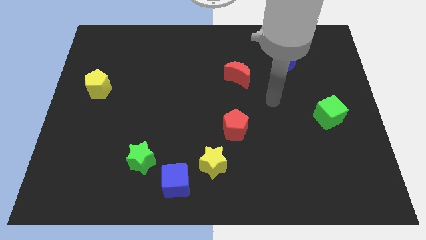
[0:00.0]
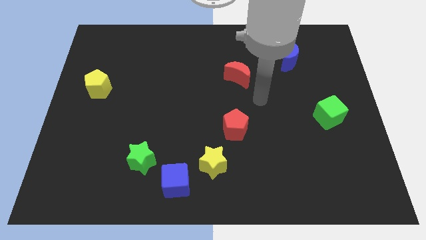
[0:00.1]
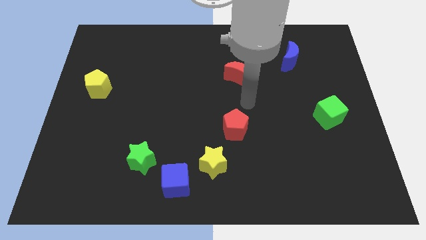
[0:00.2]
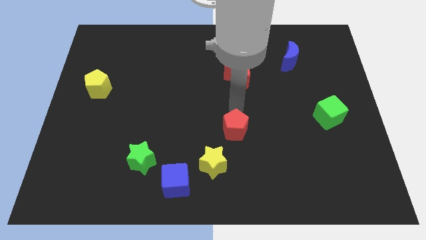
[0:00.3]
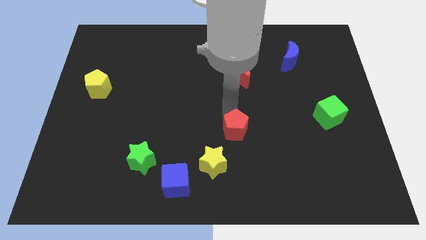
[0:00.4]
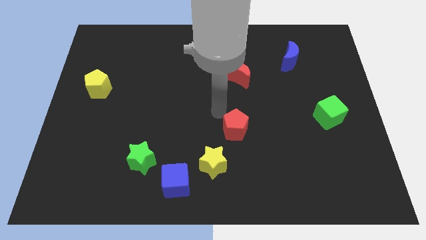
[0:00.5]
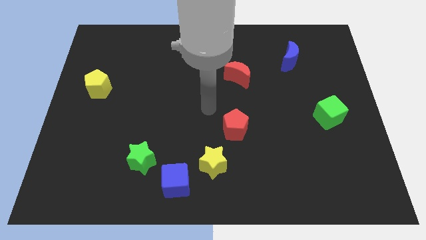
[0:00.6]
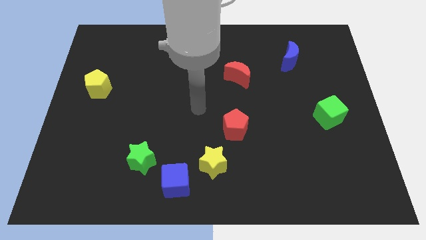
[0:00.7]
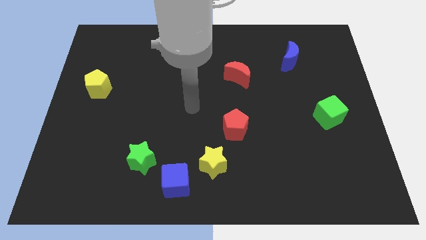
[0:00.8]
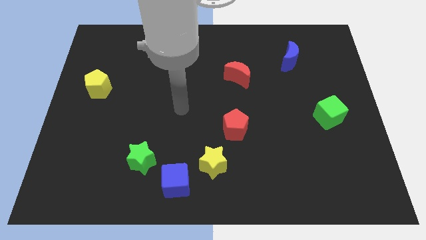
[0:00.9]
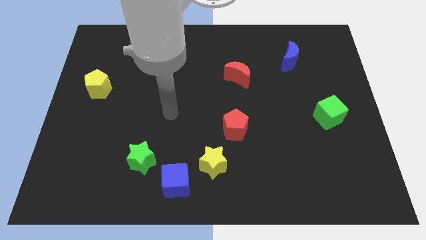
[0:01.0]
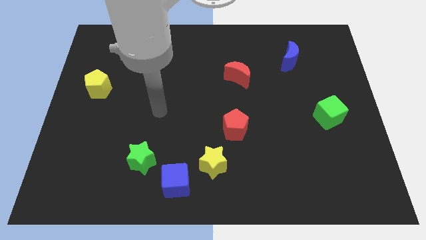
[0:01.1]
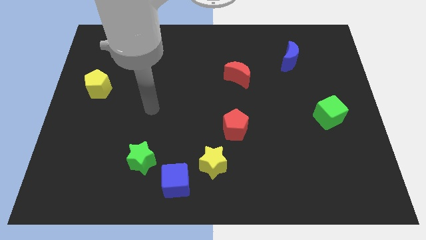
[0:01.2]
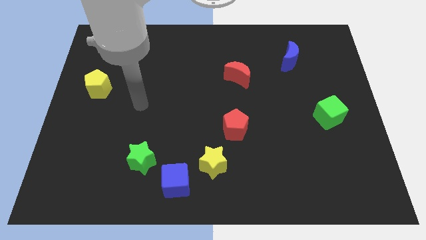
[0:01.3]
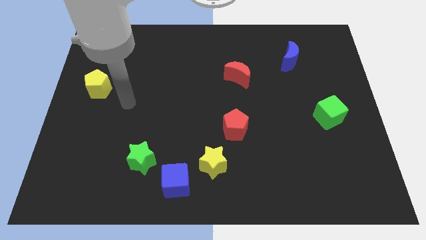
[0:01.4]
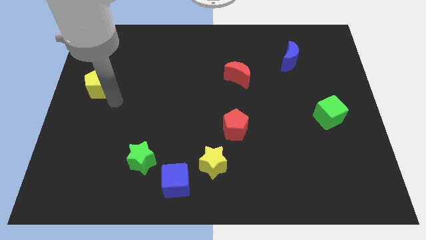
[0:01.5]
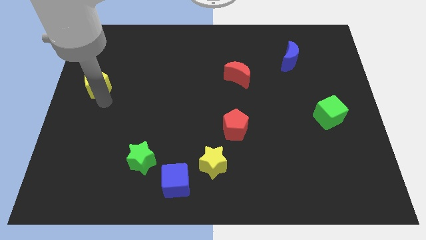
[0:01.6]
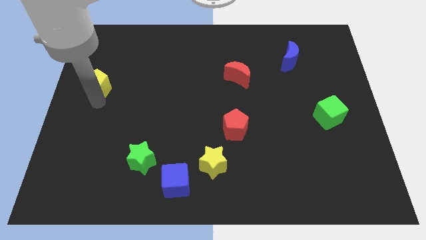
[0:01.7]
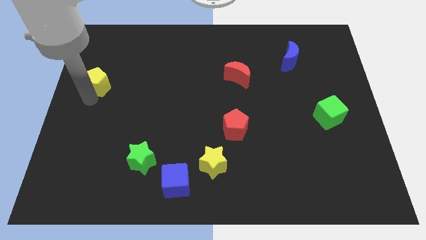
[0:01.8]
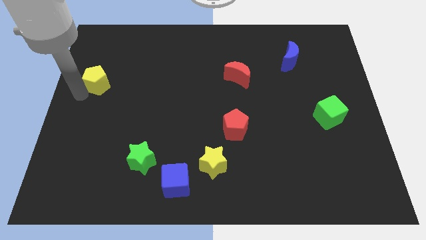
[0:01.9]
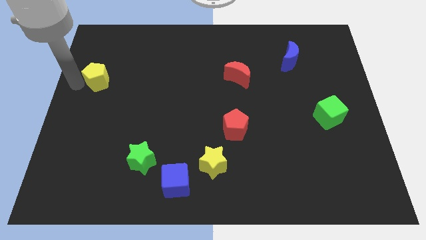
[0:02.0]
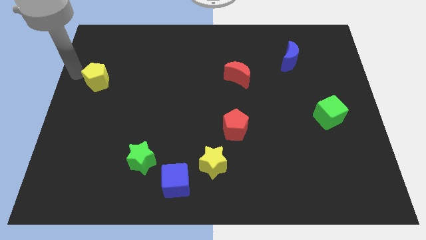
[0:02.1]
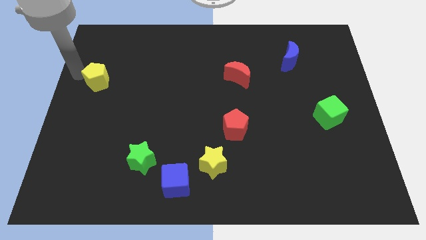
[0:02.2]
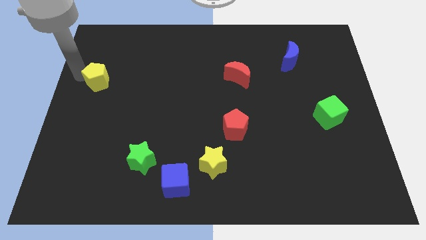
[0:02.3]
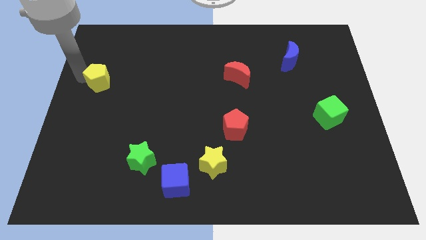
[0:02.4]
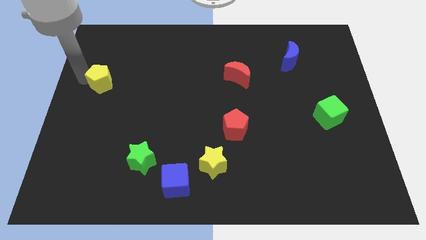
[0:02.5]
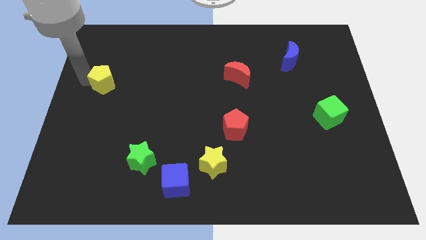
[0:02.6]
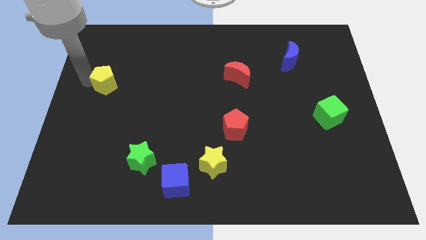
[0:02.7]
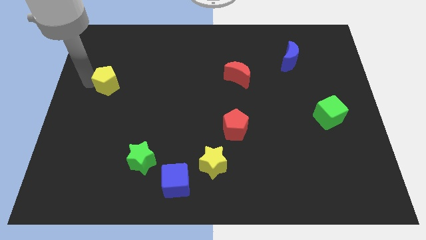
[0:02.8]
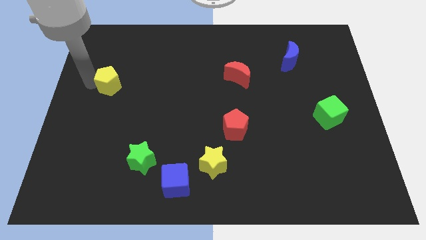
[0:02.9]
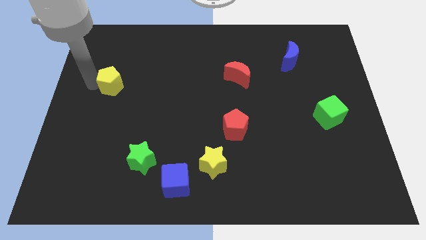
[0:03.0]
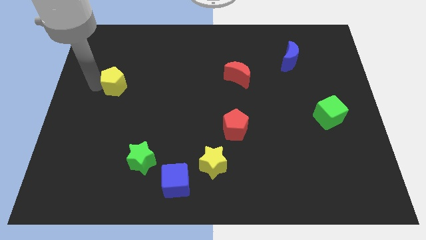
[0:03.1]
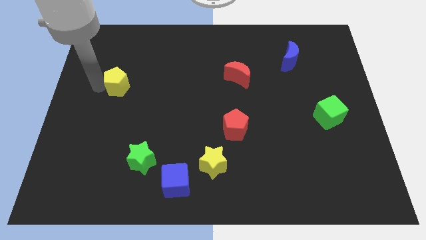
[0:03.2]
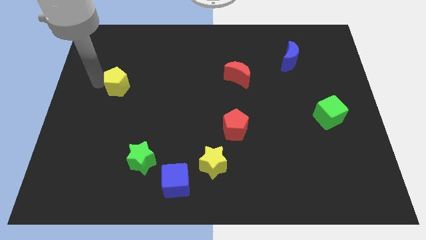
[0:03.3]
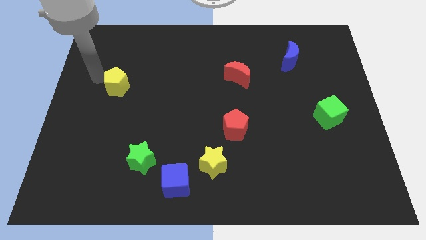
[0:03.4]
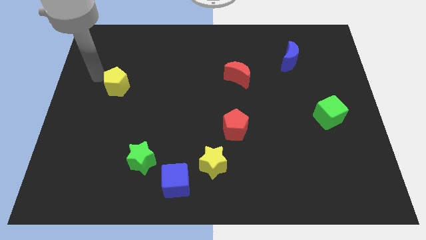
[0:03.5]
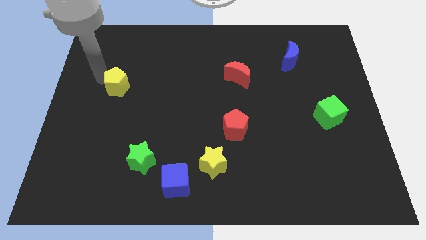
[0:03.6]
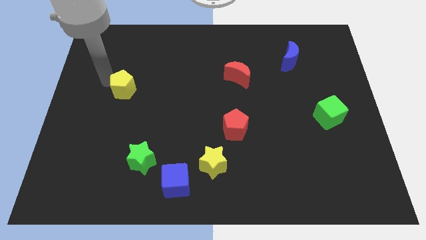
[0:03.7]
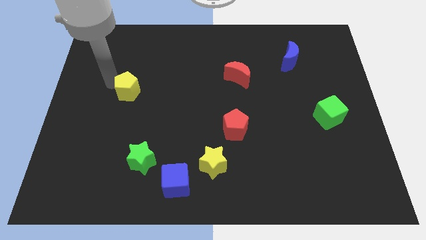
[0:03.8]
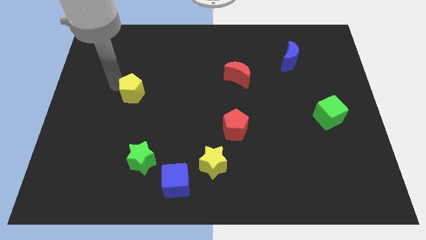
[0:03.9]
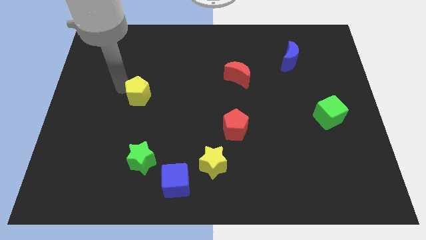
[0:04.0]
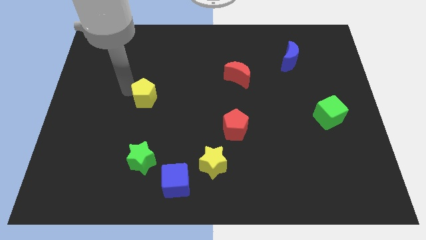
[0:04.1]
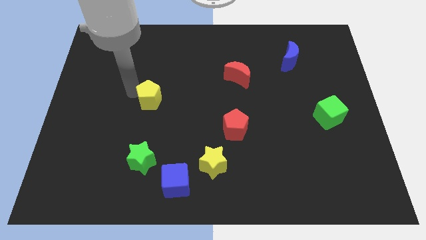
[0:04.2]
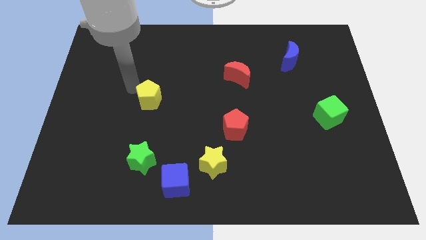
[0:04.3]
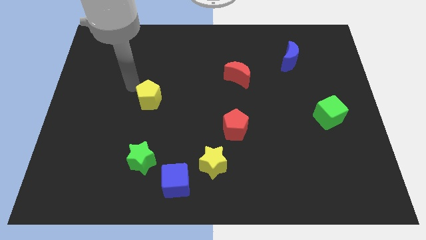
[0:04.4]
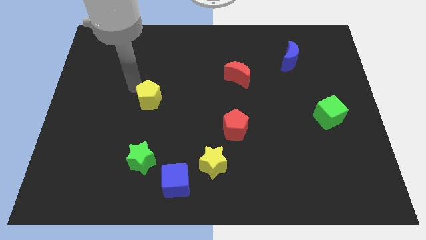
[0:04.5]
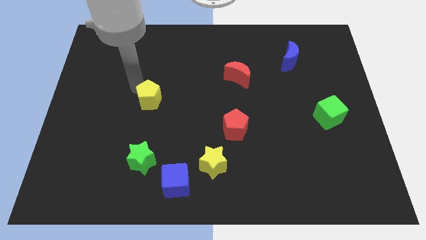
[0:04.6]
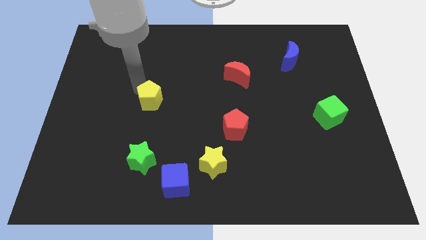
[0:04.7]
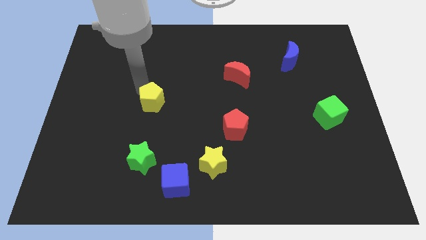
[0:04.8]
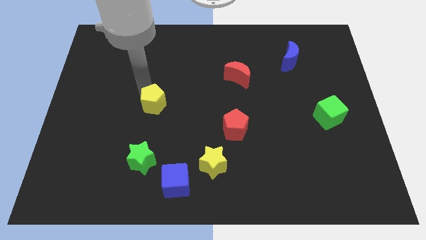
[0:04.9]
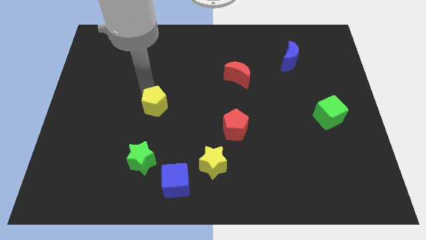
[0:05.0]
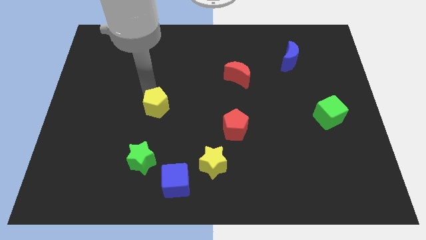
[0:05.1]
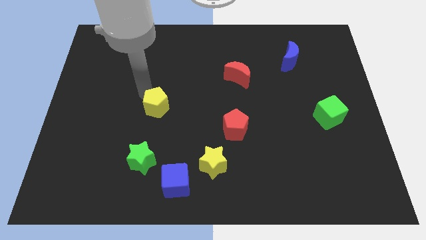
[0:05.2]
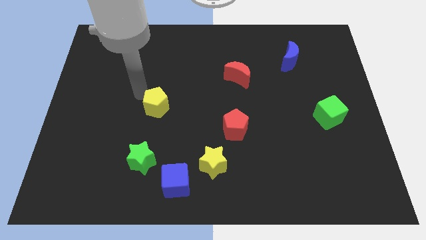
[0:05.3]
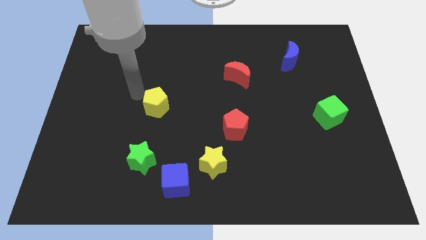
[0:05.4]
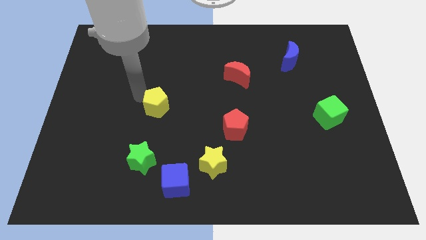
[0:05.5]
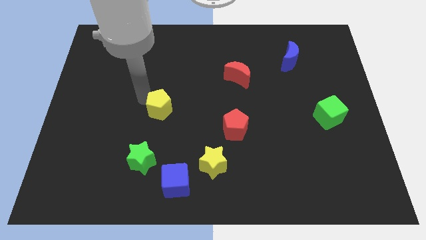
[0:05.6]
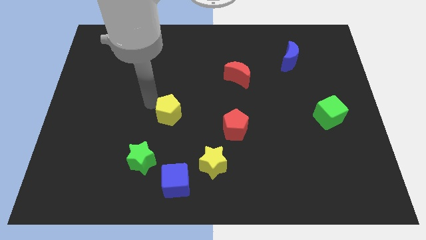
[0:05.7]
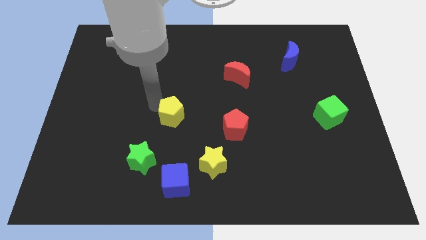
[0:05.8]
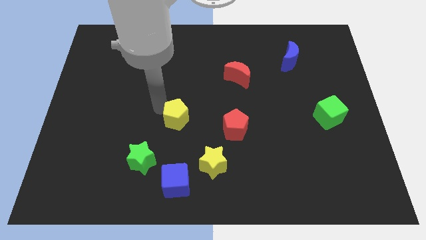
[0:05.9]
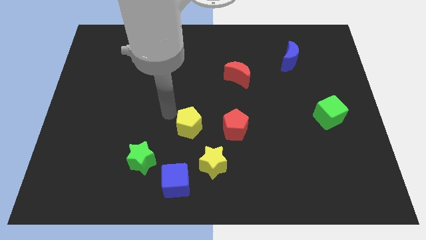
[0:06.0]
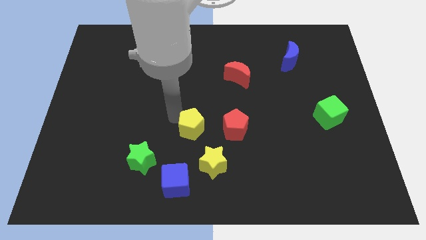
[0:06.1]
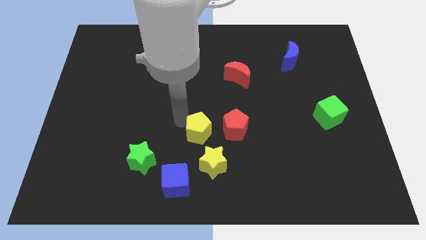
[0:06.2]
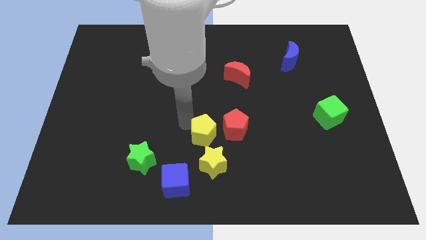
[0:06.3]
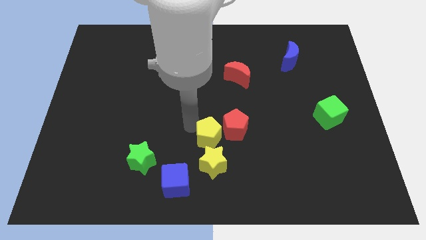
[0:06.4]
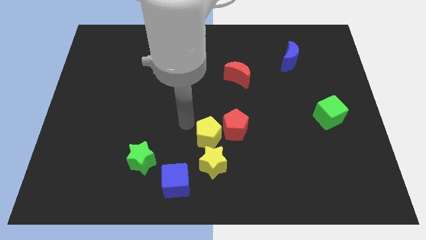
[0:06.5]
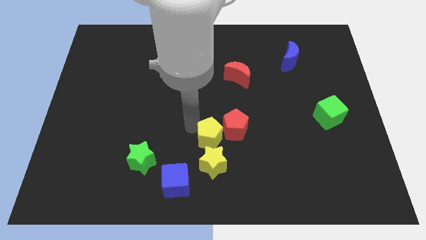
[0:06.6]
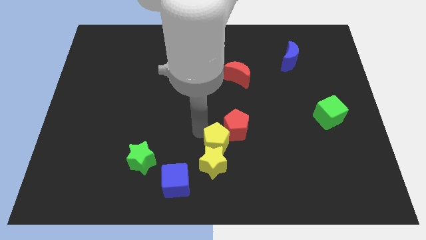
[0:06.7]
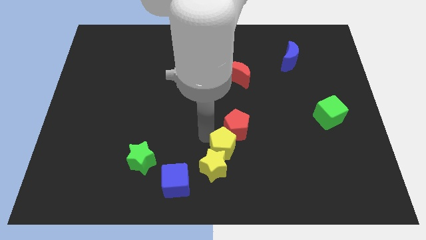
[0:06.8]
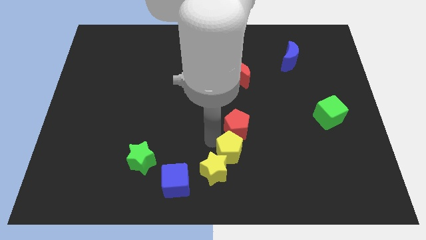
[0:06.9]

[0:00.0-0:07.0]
put the yellow pentagon right of the yellow star
